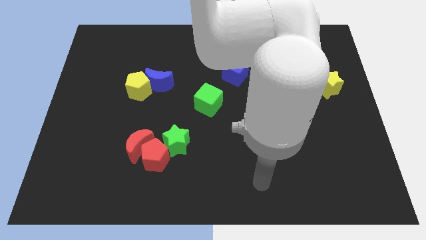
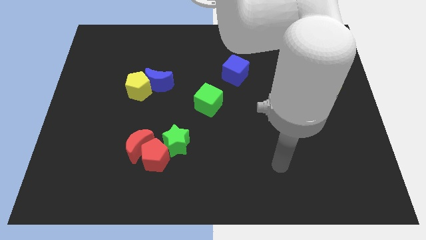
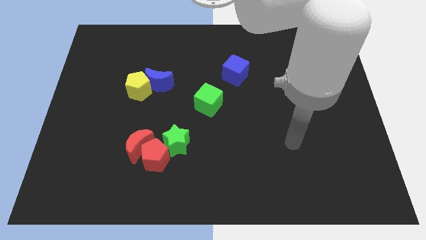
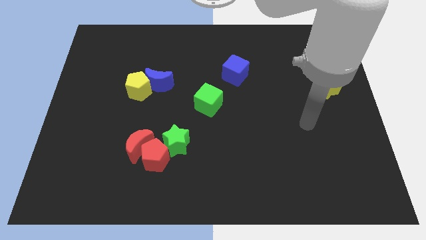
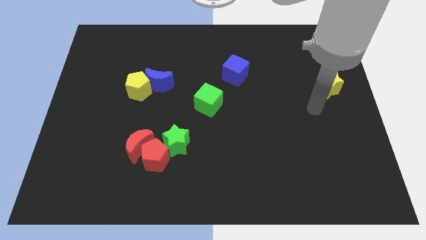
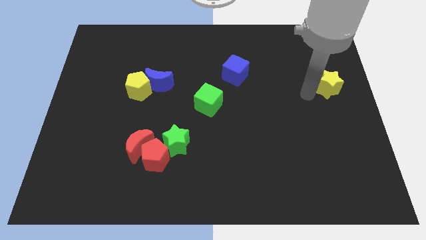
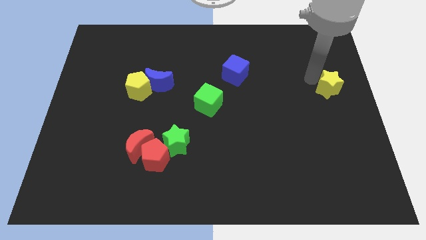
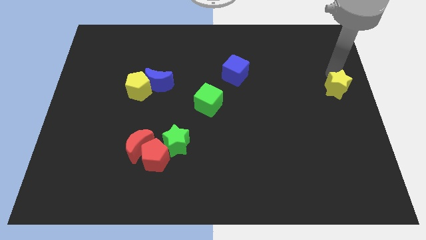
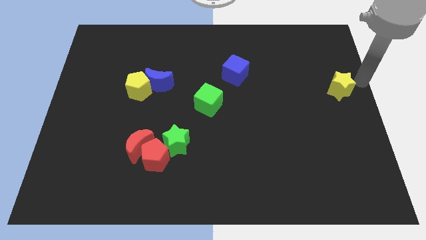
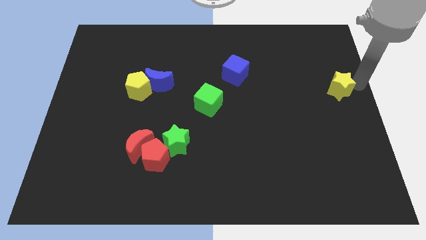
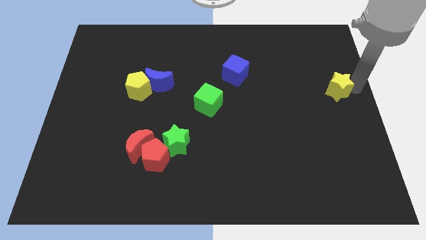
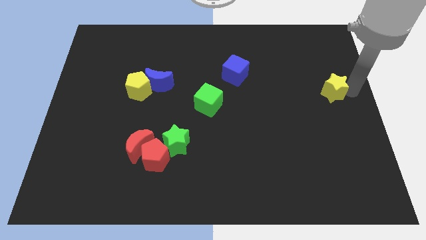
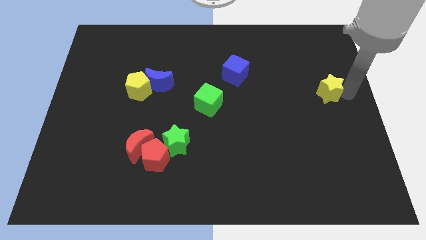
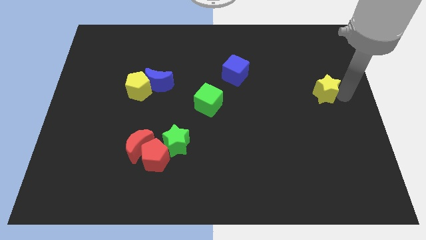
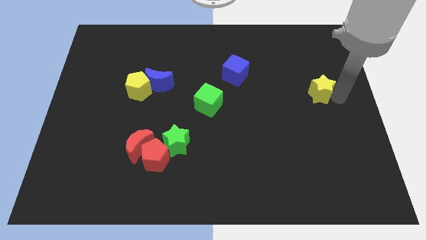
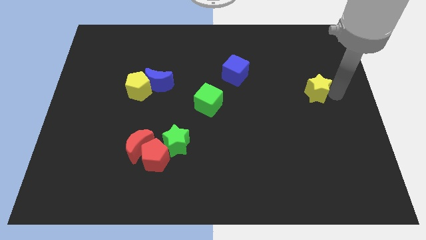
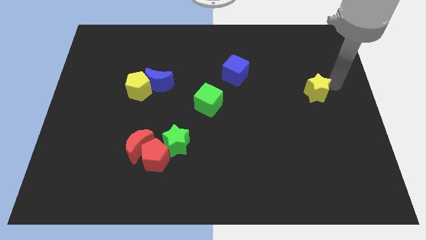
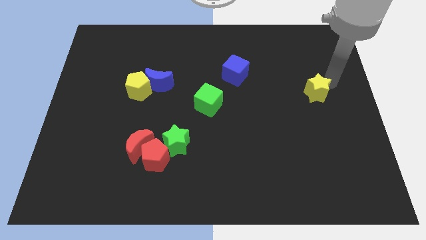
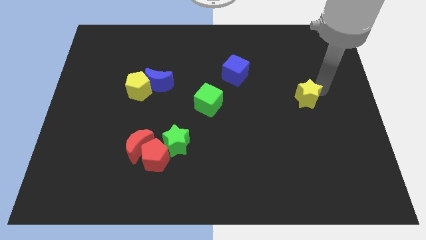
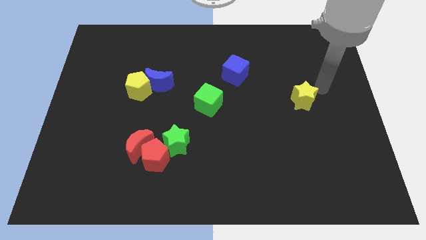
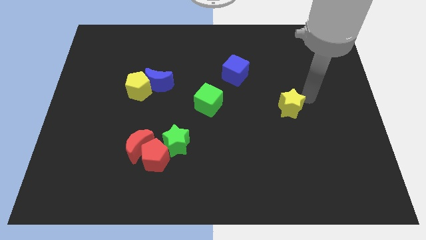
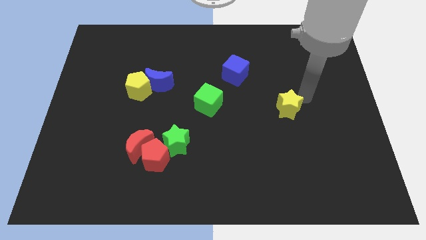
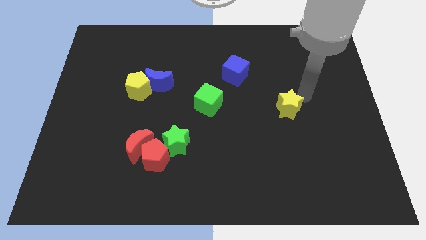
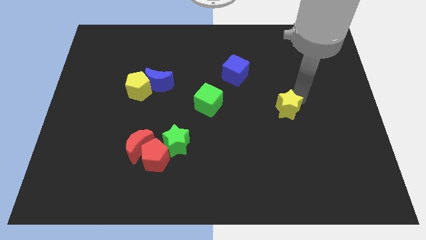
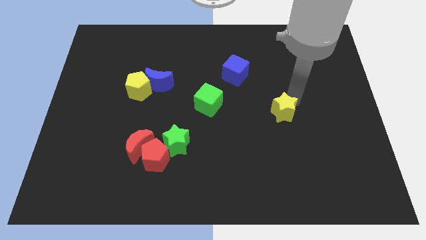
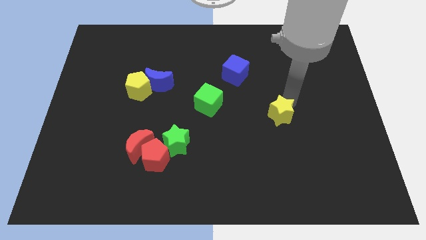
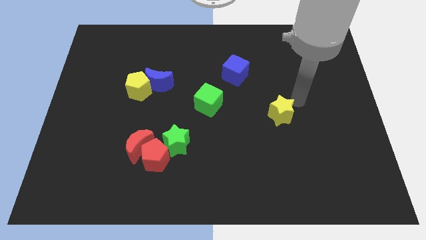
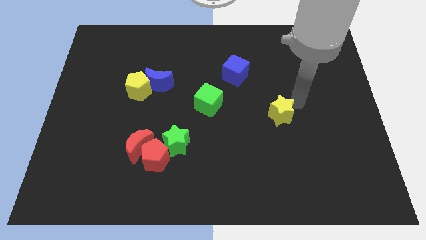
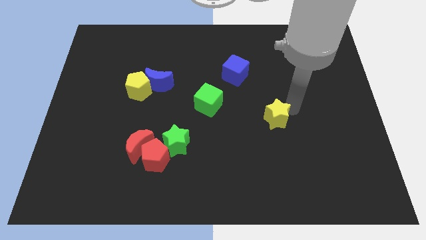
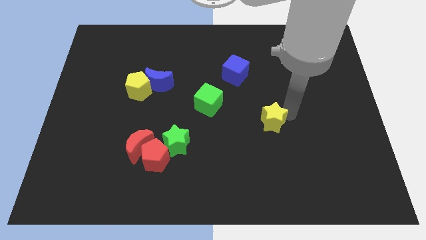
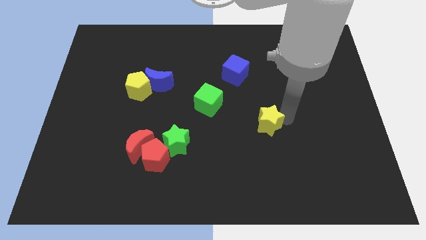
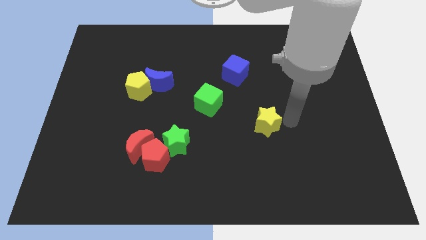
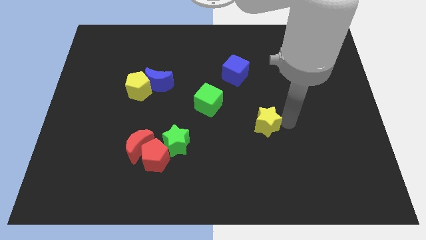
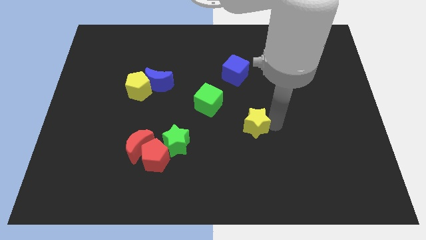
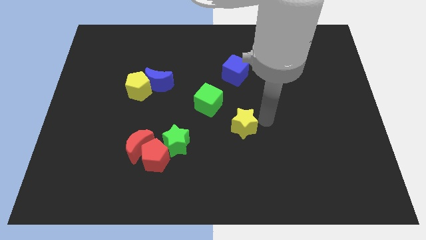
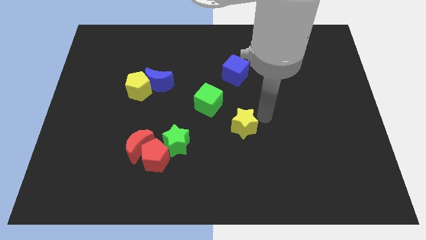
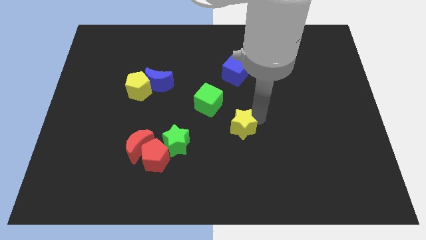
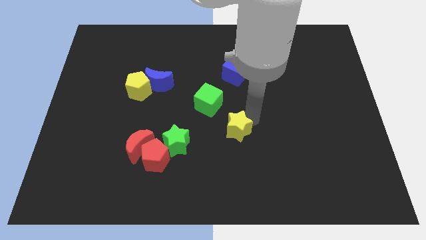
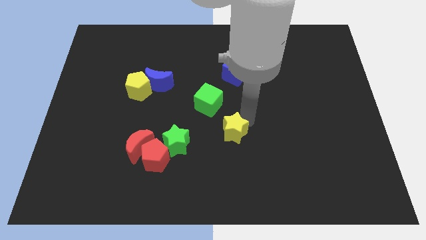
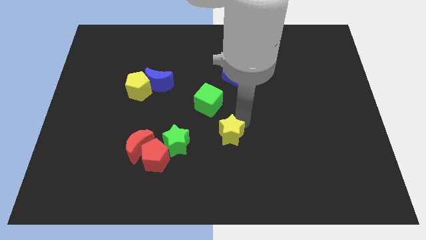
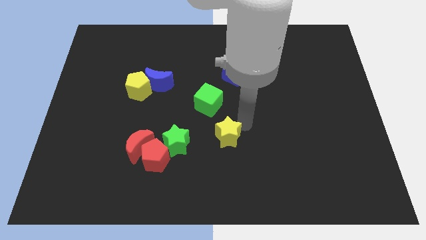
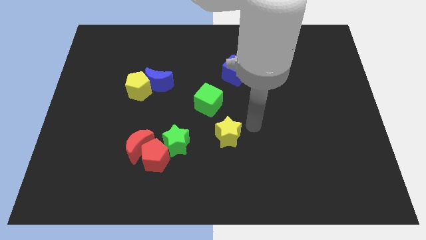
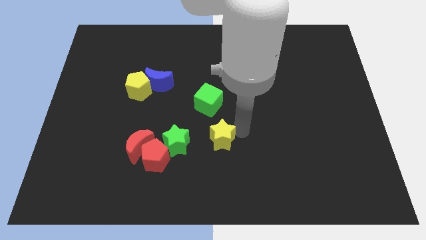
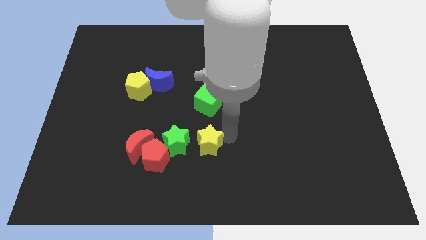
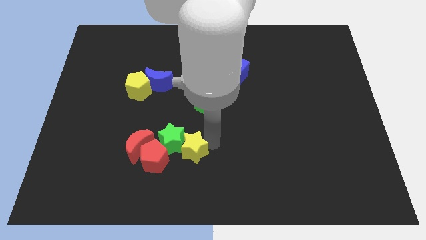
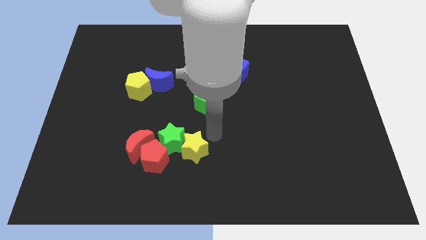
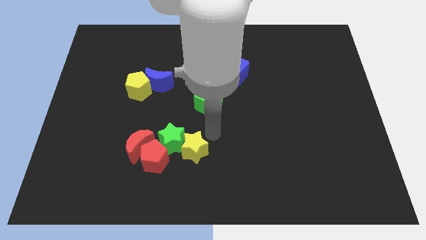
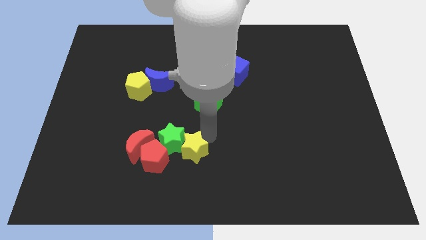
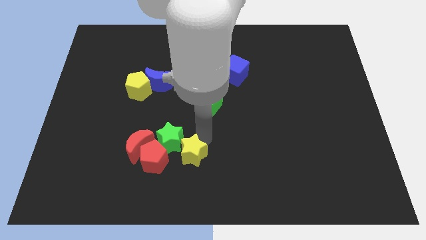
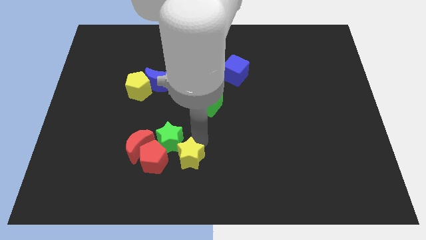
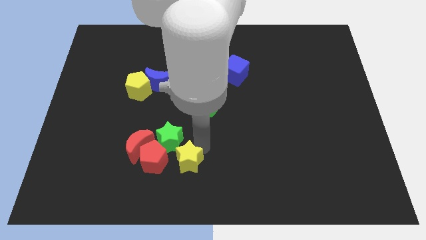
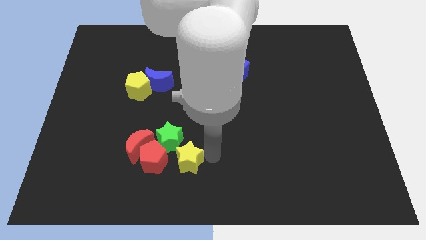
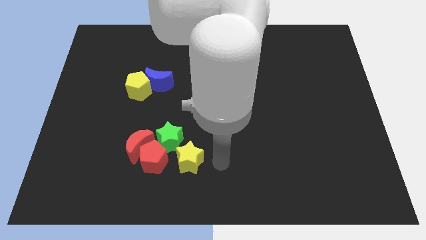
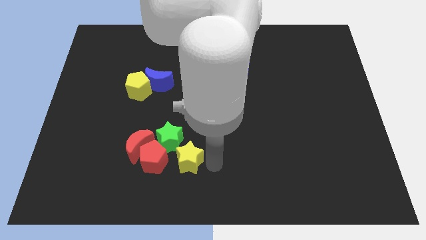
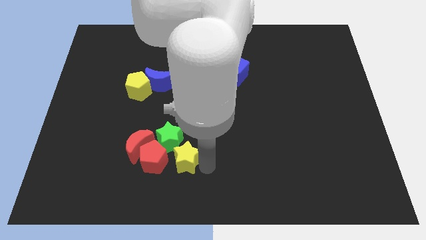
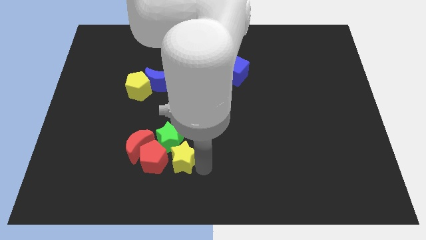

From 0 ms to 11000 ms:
move the yellow star towards the red pentagon

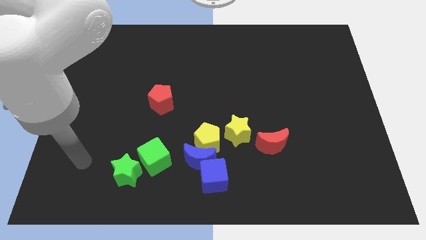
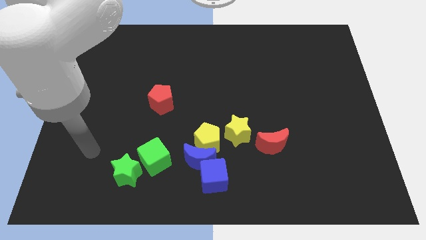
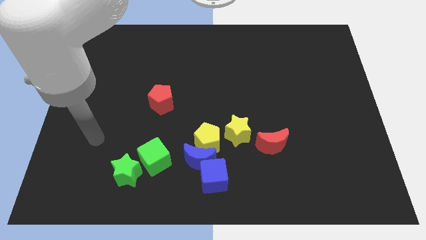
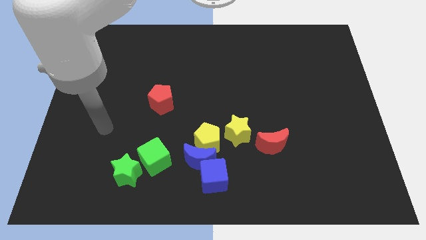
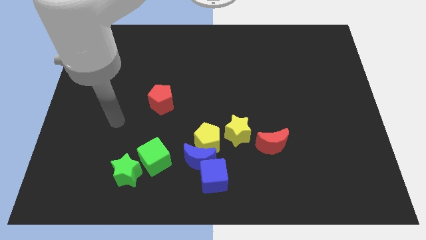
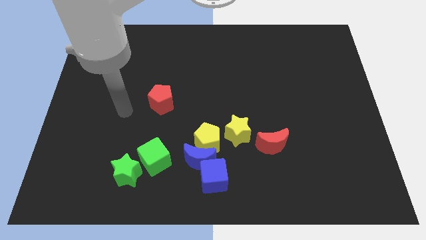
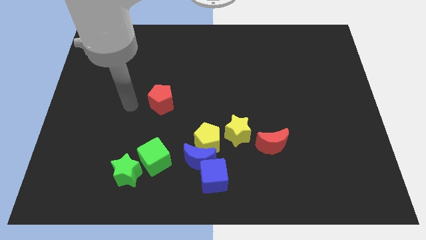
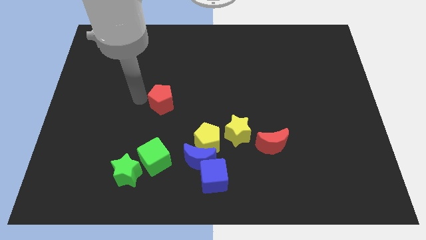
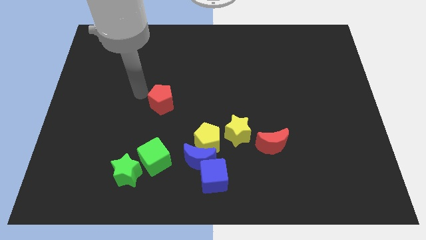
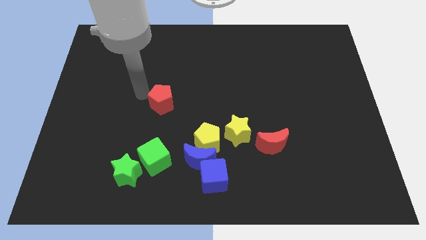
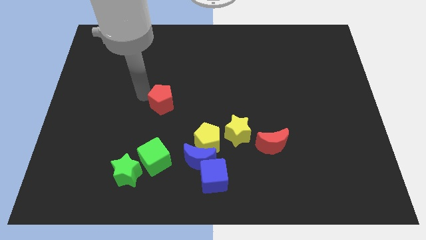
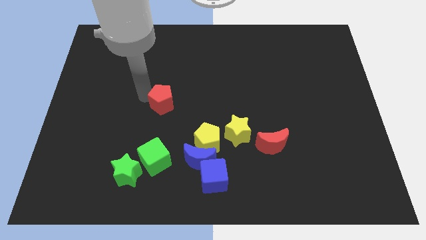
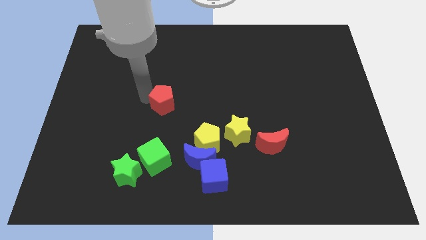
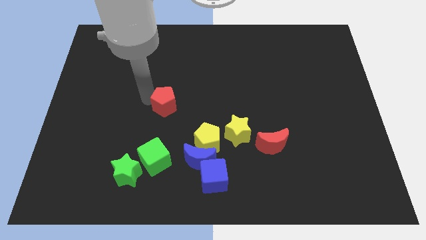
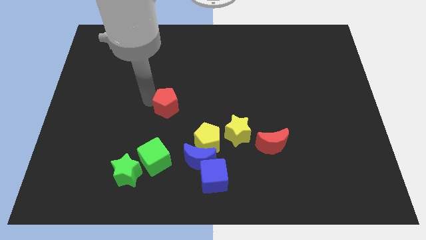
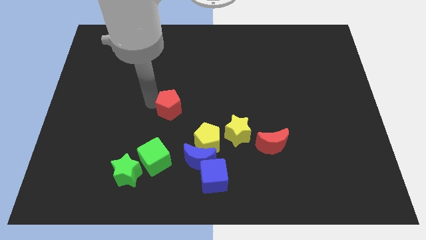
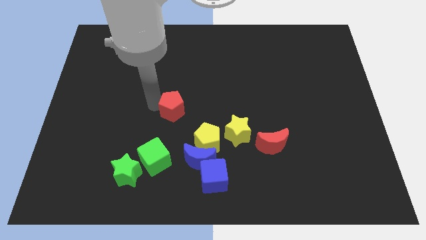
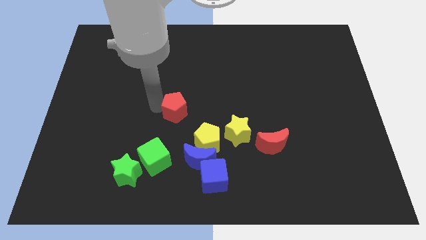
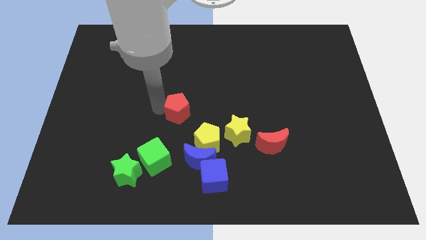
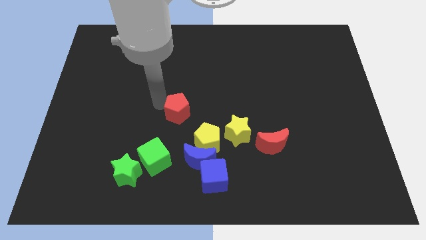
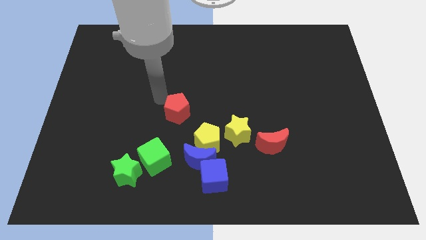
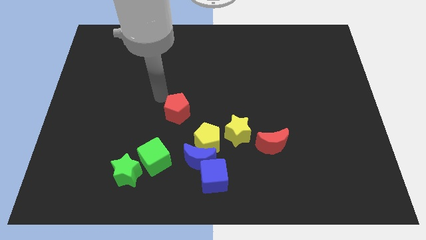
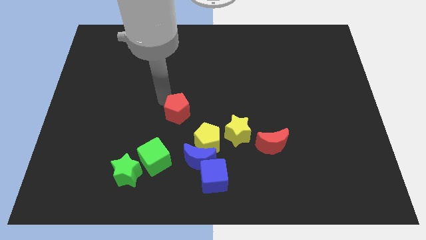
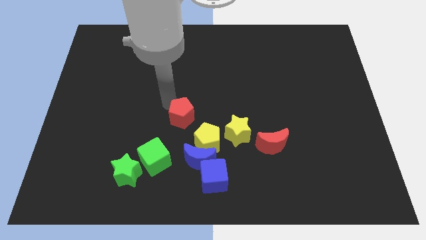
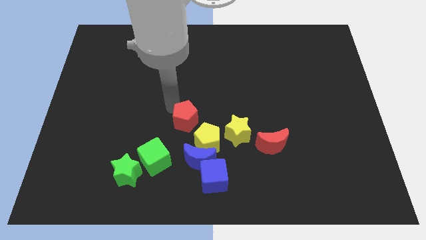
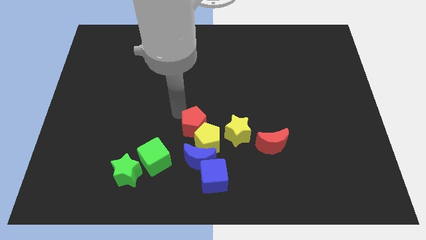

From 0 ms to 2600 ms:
slide the red pentagon to the yellow pentagon
